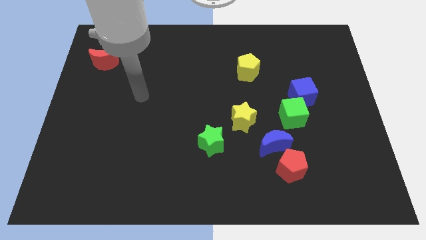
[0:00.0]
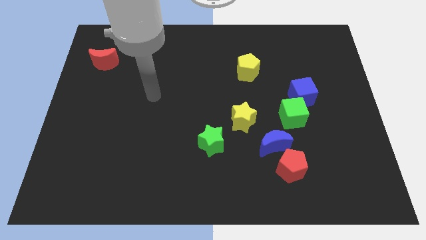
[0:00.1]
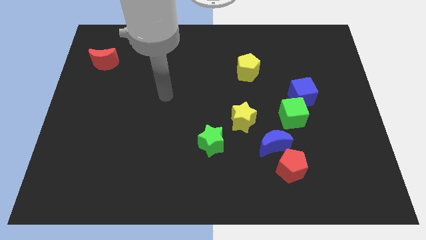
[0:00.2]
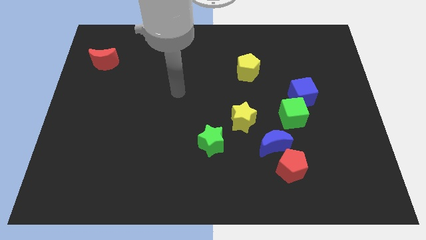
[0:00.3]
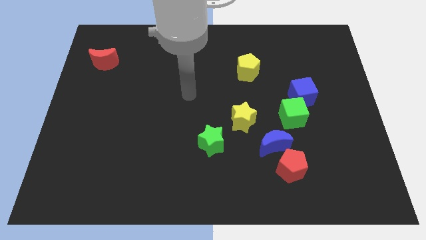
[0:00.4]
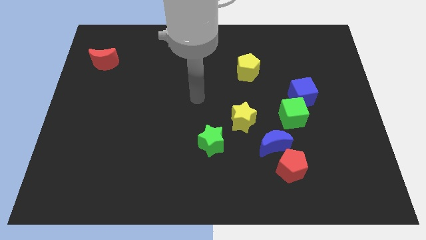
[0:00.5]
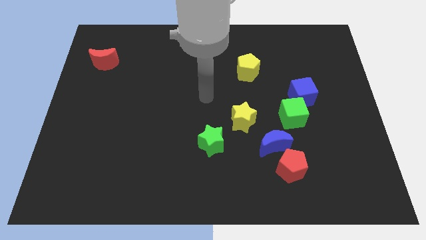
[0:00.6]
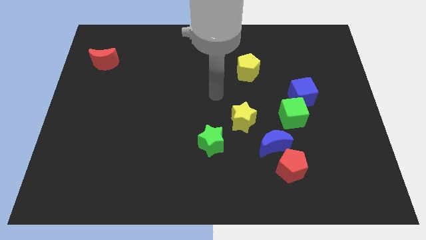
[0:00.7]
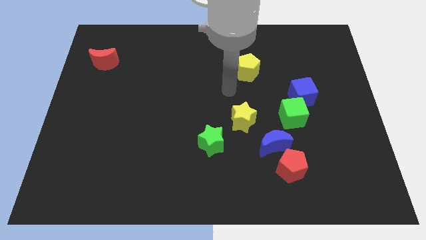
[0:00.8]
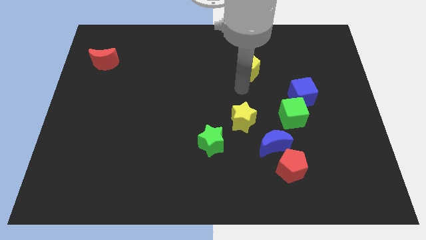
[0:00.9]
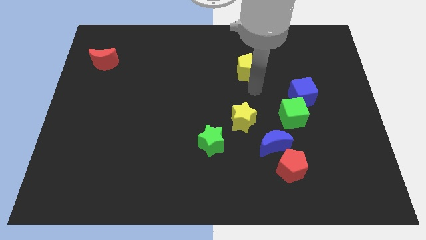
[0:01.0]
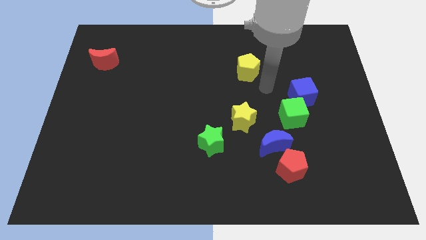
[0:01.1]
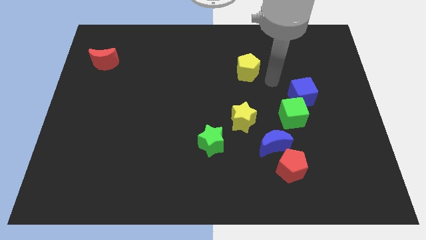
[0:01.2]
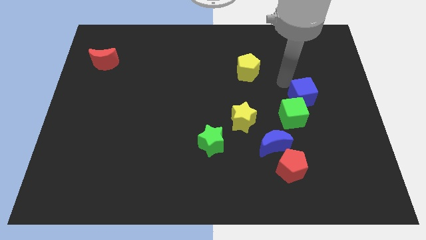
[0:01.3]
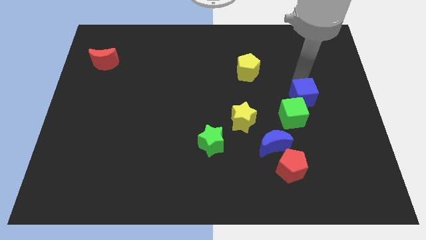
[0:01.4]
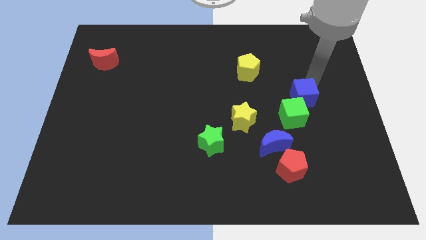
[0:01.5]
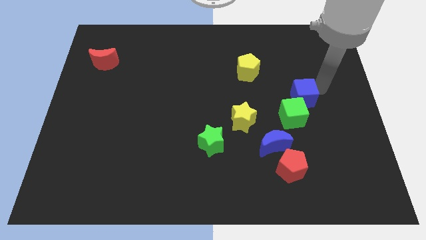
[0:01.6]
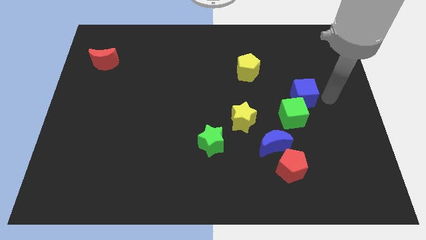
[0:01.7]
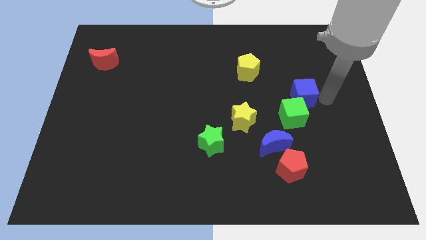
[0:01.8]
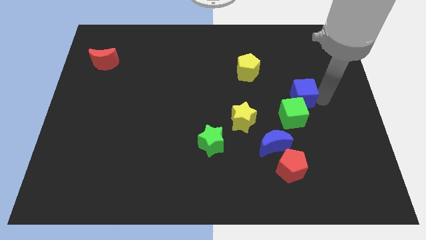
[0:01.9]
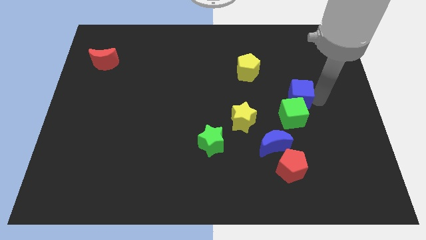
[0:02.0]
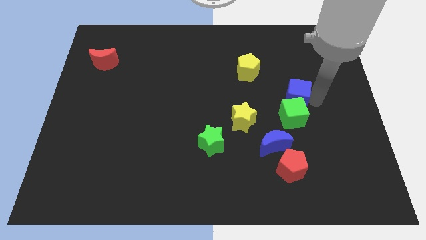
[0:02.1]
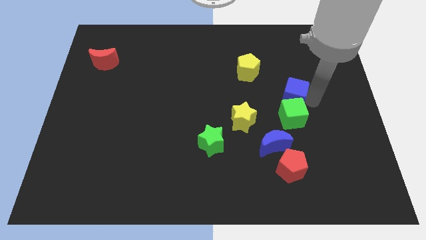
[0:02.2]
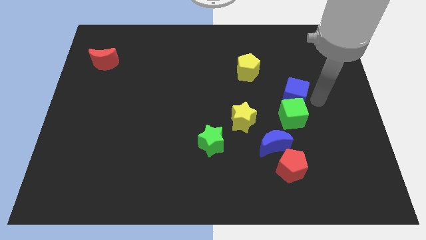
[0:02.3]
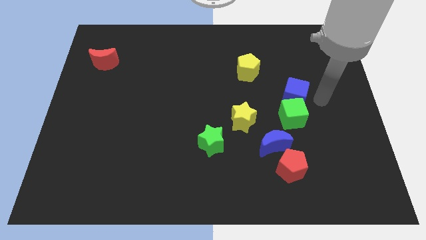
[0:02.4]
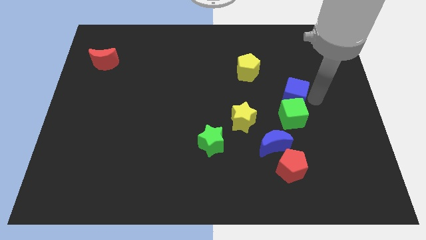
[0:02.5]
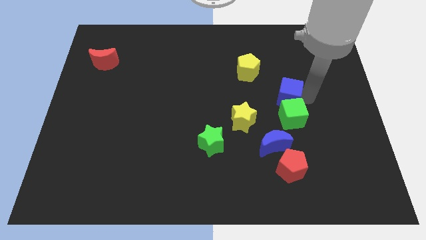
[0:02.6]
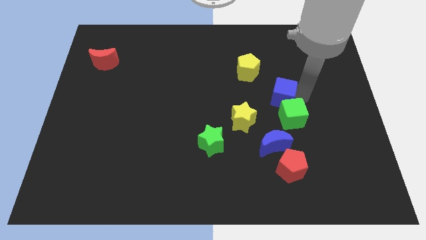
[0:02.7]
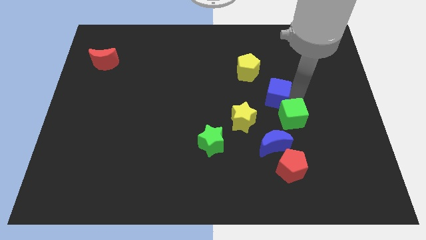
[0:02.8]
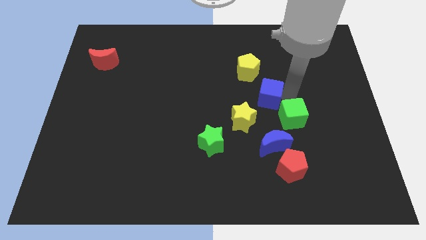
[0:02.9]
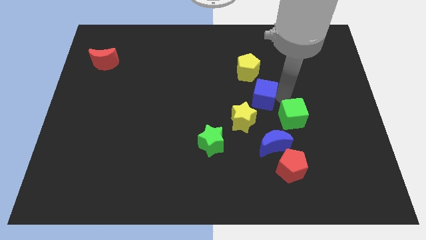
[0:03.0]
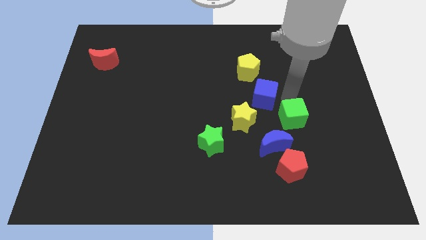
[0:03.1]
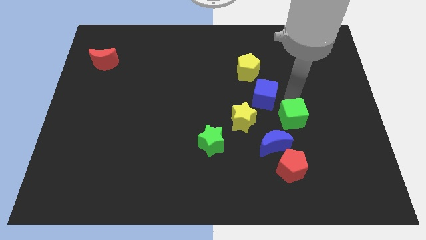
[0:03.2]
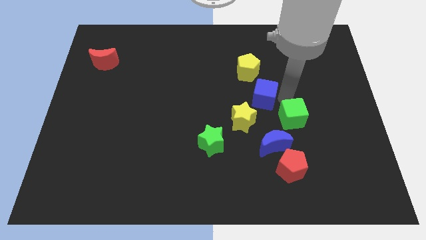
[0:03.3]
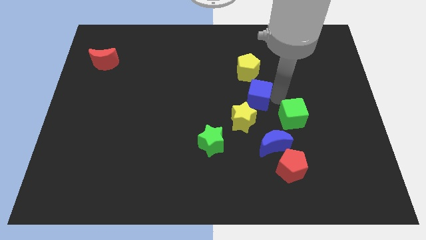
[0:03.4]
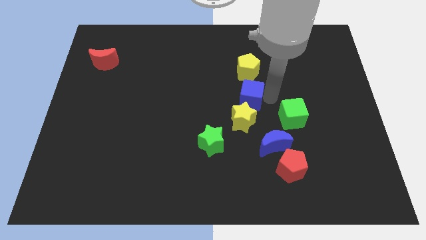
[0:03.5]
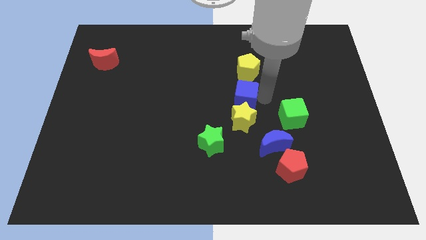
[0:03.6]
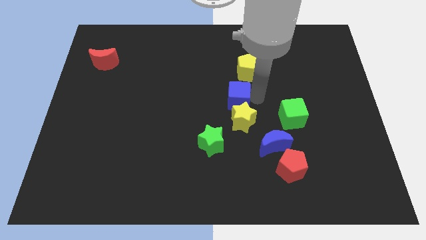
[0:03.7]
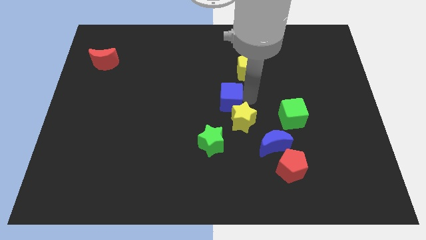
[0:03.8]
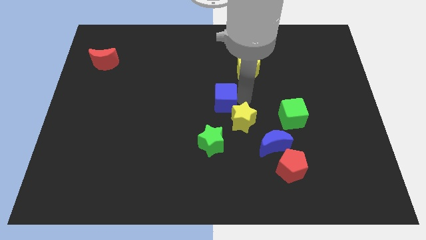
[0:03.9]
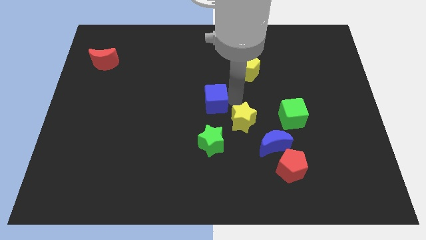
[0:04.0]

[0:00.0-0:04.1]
push the blue cube to the left

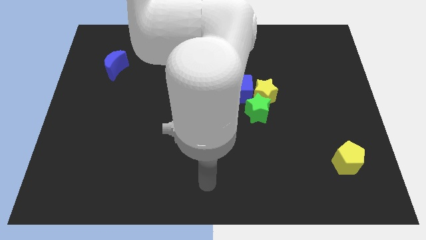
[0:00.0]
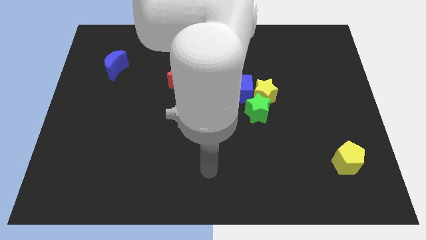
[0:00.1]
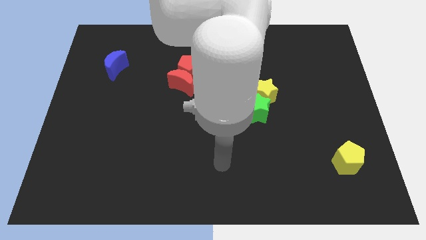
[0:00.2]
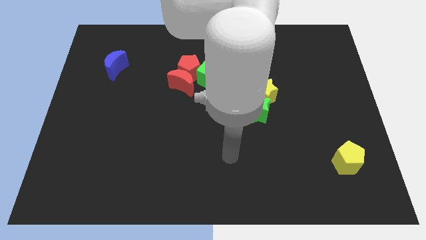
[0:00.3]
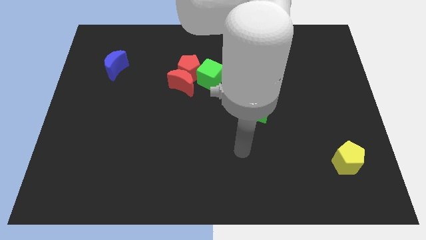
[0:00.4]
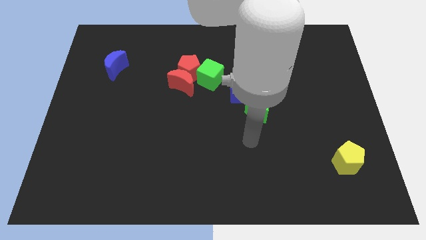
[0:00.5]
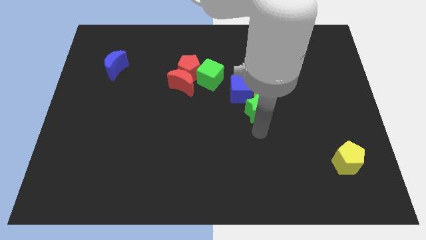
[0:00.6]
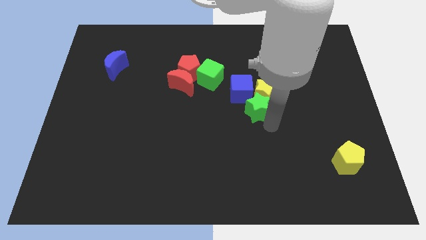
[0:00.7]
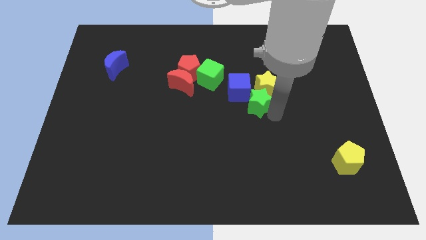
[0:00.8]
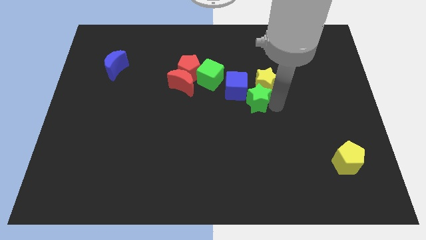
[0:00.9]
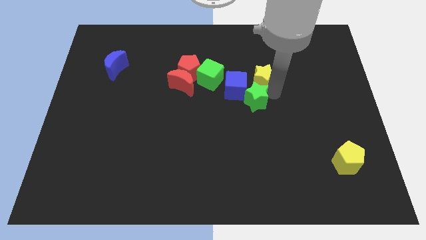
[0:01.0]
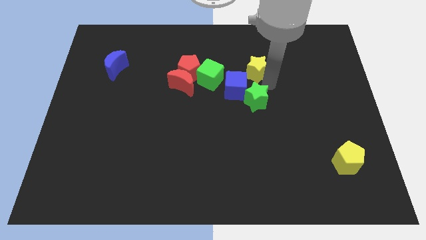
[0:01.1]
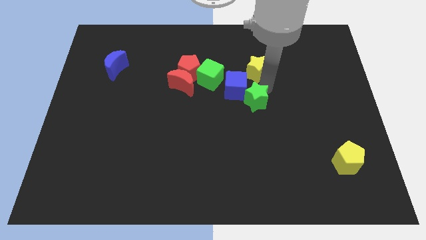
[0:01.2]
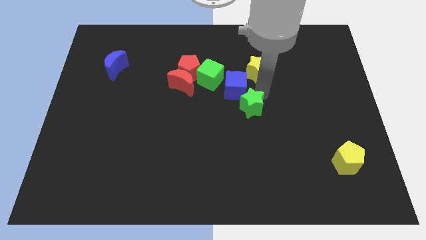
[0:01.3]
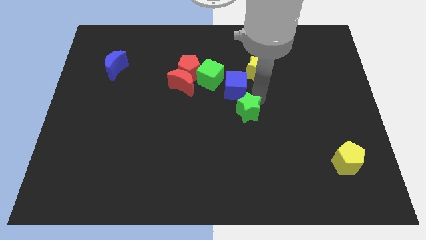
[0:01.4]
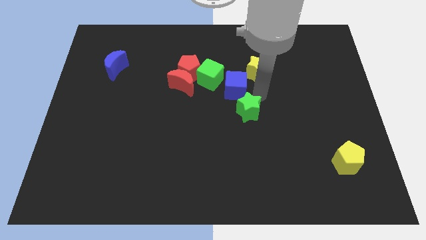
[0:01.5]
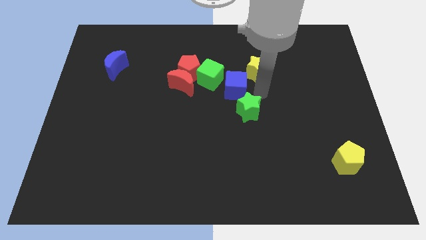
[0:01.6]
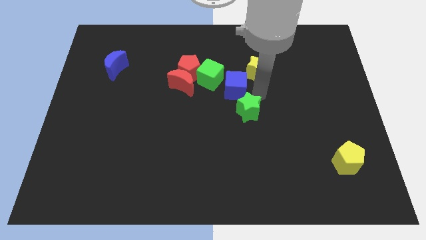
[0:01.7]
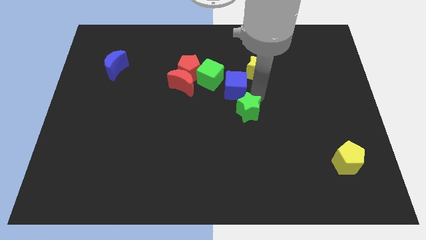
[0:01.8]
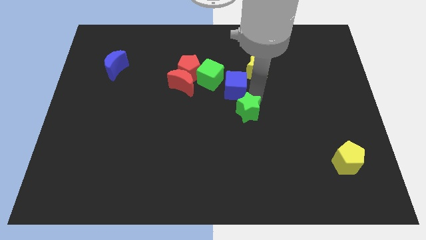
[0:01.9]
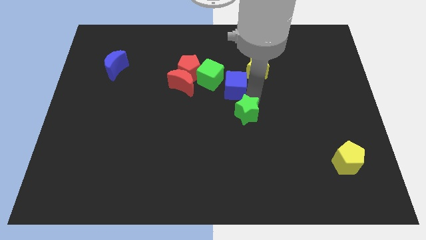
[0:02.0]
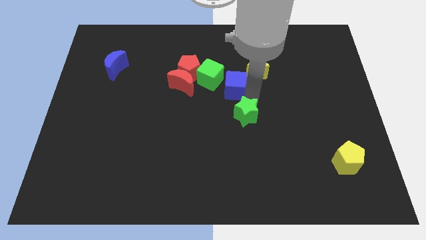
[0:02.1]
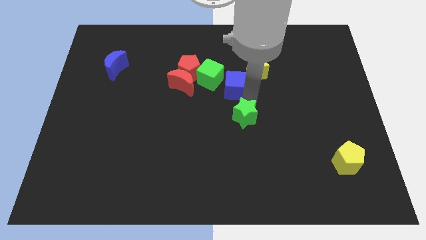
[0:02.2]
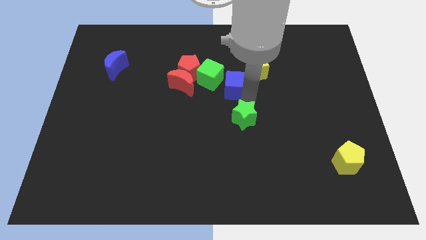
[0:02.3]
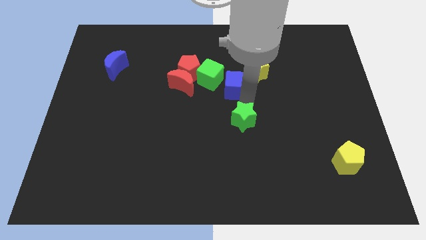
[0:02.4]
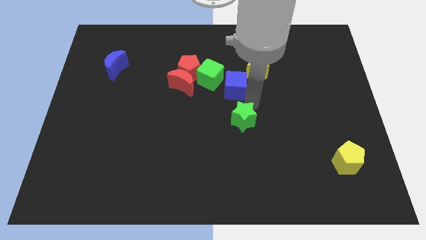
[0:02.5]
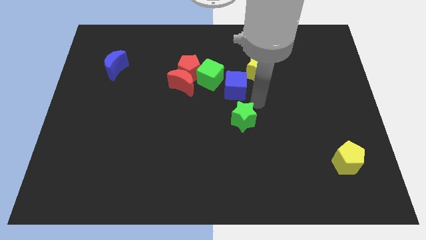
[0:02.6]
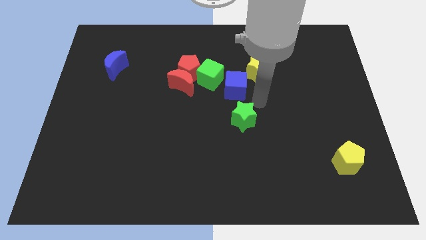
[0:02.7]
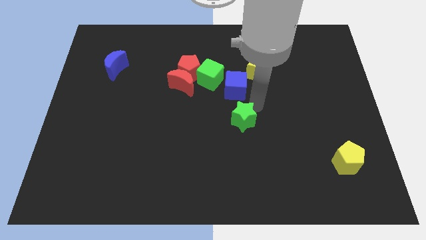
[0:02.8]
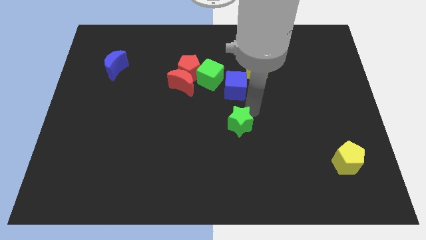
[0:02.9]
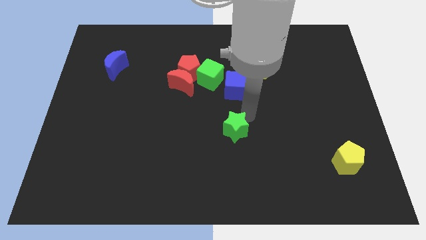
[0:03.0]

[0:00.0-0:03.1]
slide the green star a little bit downwards and left diagonally

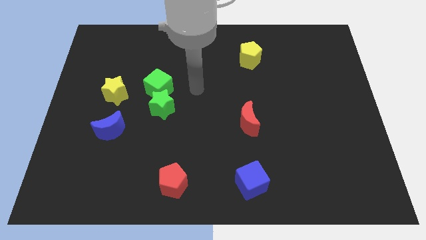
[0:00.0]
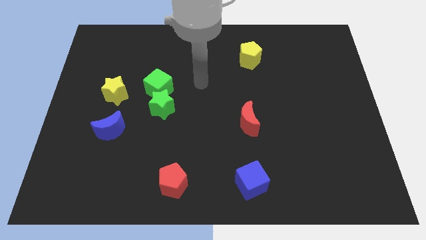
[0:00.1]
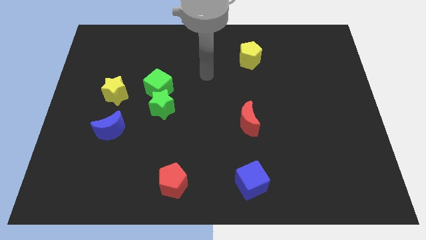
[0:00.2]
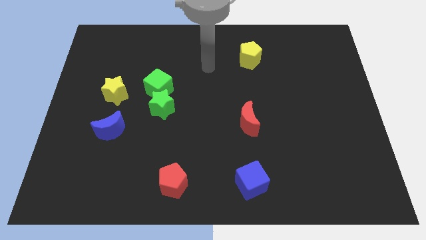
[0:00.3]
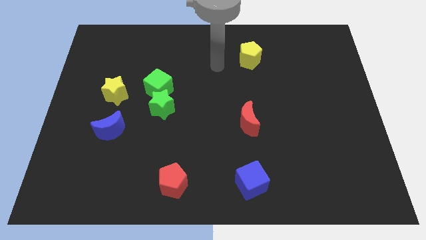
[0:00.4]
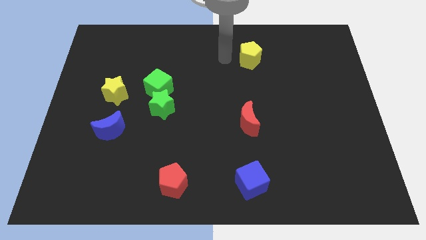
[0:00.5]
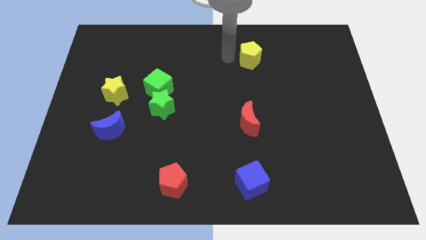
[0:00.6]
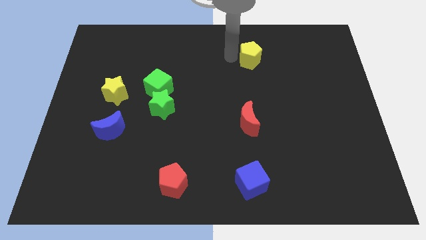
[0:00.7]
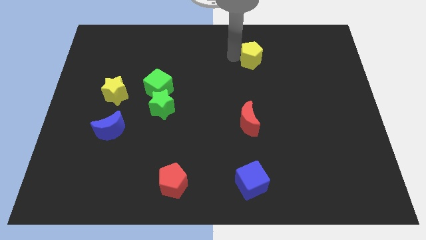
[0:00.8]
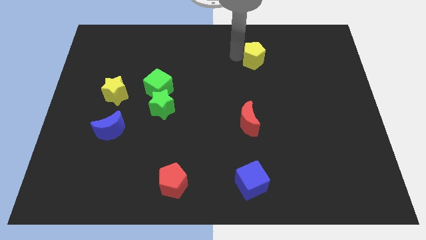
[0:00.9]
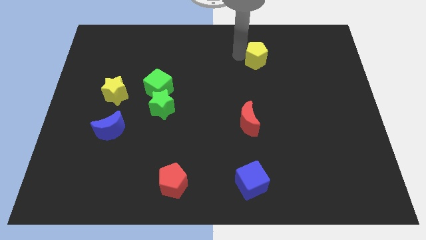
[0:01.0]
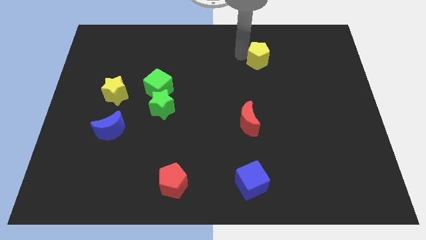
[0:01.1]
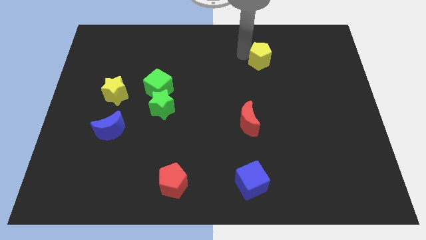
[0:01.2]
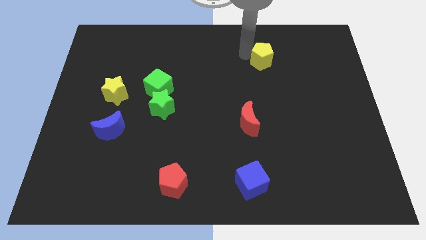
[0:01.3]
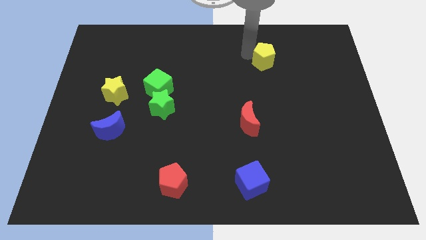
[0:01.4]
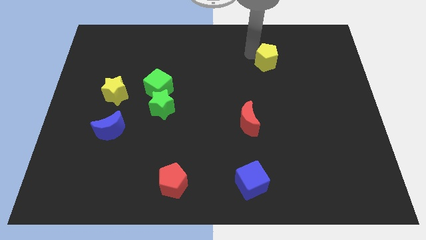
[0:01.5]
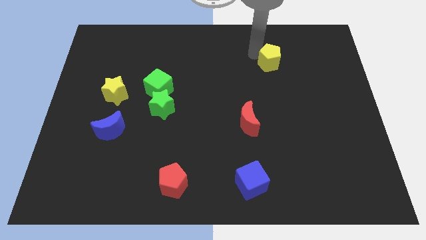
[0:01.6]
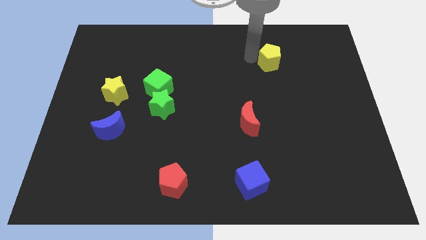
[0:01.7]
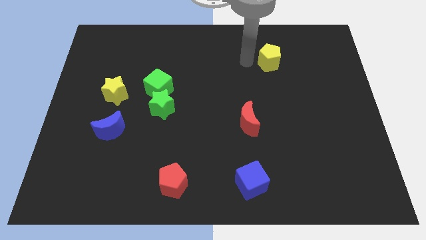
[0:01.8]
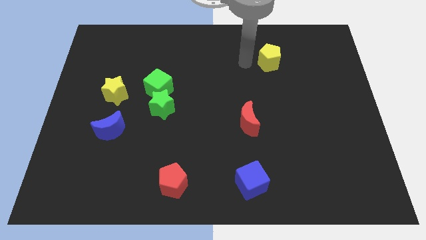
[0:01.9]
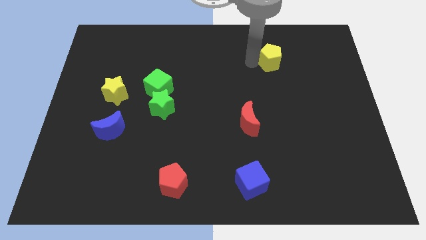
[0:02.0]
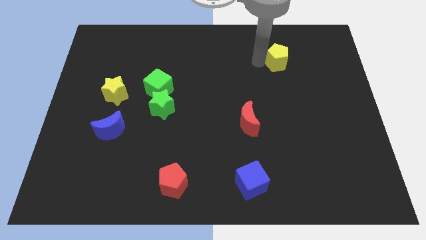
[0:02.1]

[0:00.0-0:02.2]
slide the yellow pentagon right a little
